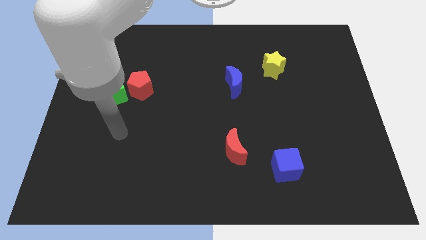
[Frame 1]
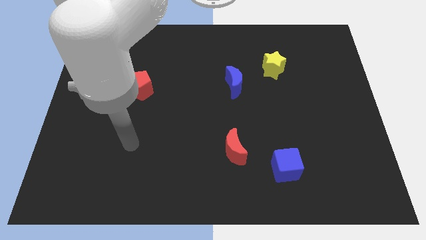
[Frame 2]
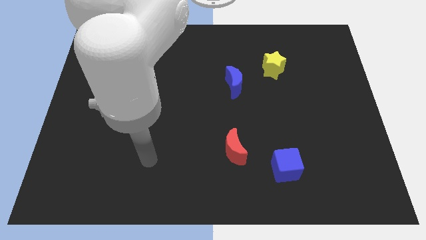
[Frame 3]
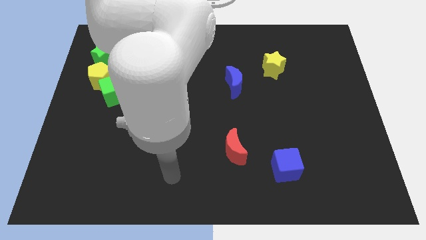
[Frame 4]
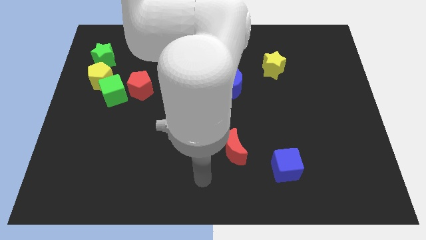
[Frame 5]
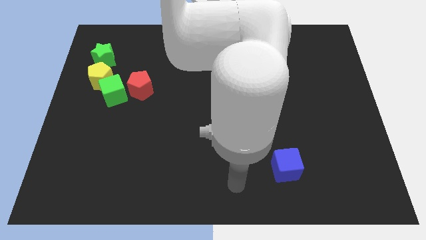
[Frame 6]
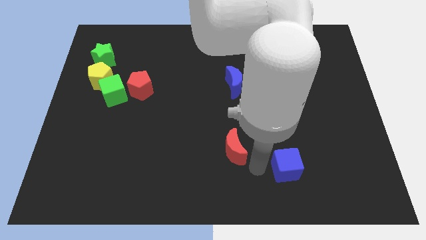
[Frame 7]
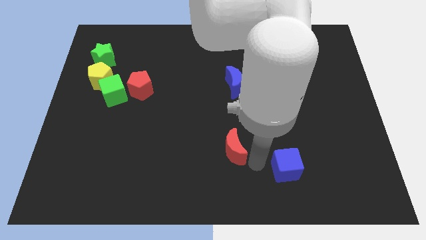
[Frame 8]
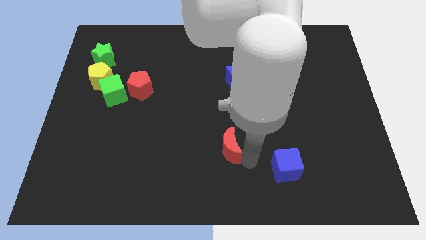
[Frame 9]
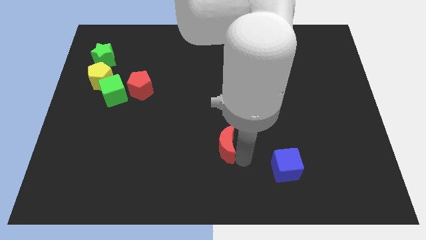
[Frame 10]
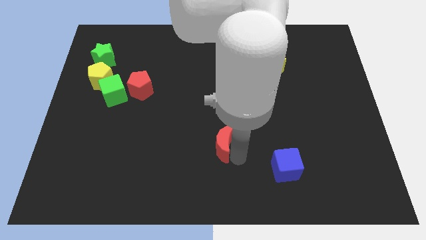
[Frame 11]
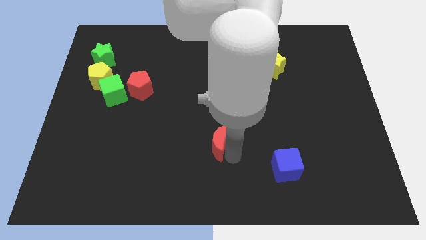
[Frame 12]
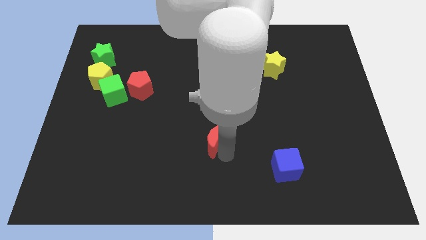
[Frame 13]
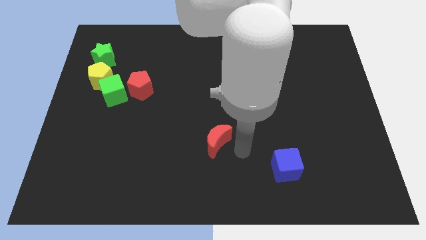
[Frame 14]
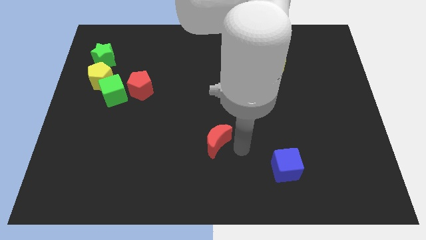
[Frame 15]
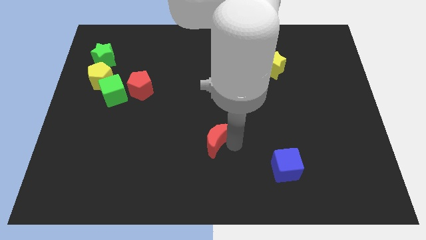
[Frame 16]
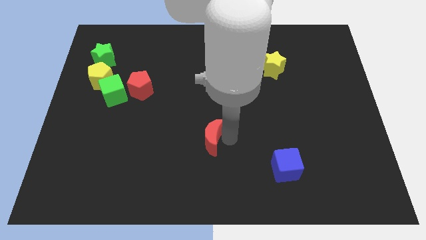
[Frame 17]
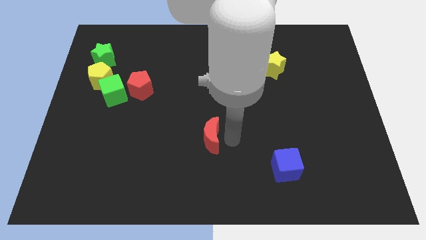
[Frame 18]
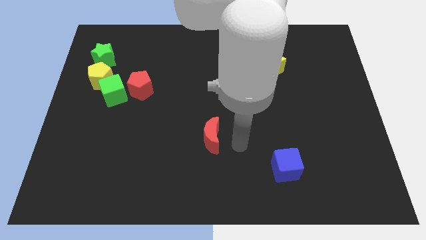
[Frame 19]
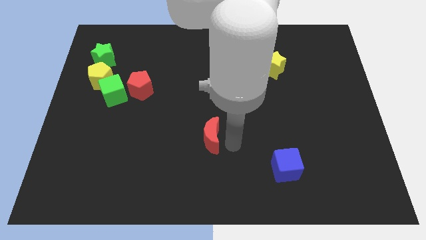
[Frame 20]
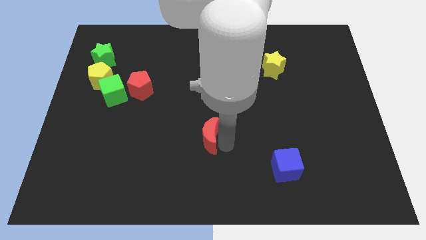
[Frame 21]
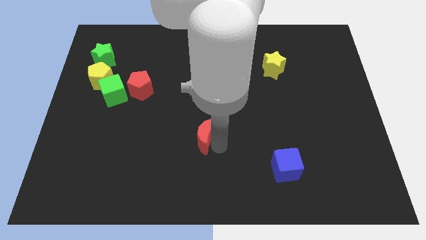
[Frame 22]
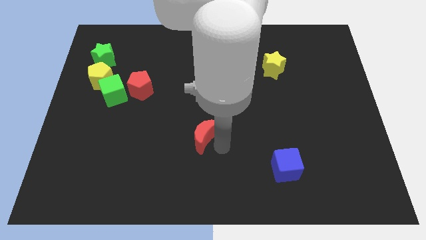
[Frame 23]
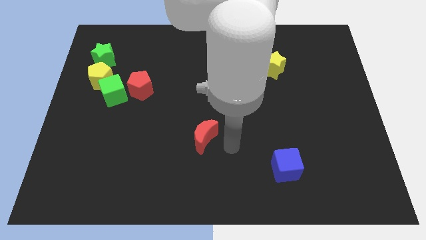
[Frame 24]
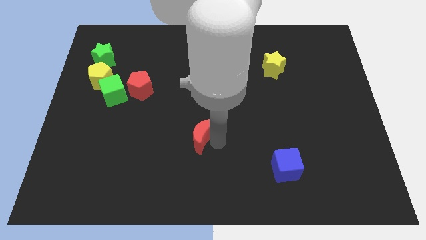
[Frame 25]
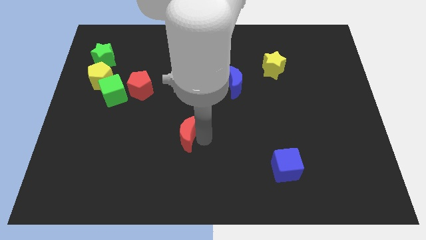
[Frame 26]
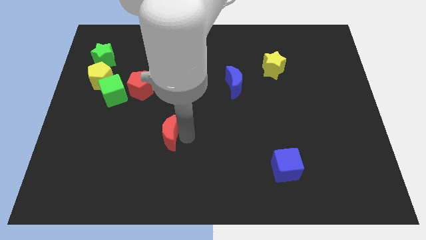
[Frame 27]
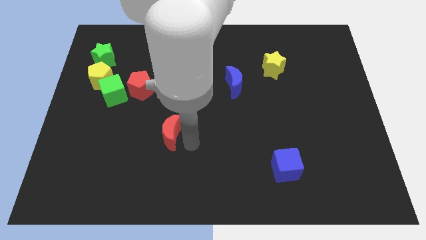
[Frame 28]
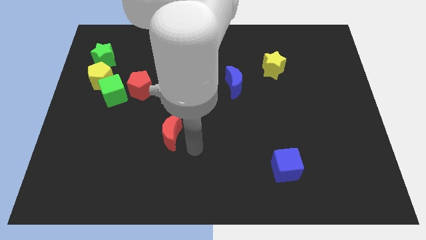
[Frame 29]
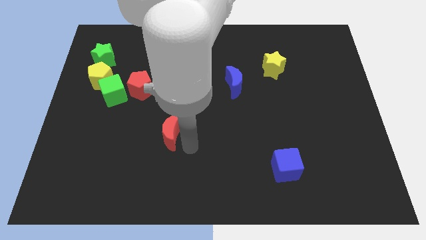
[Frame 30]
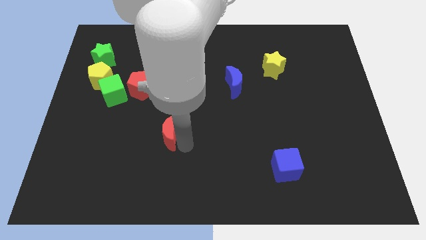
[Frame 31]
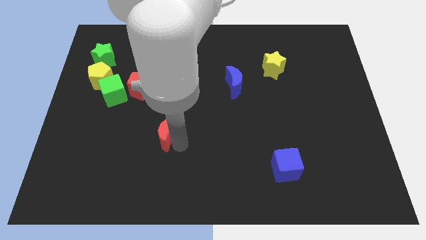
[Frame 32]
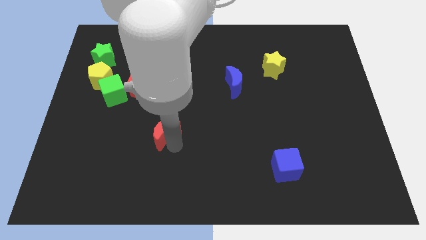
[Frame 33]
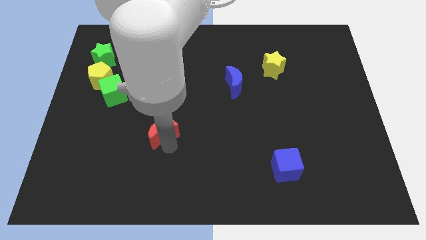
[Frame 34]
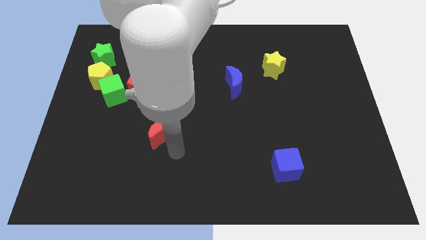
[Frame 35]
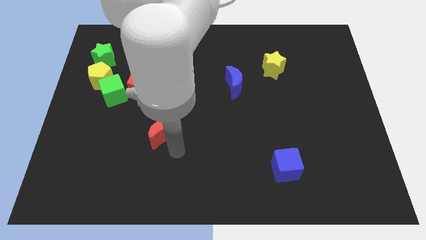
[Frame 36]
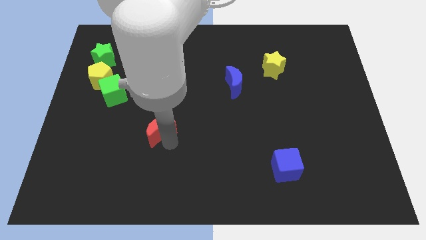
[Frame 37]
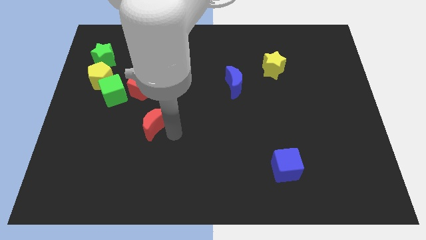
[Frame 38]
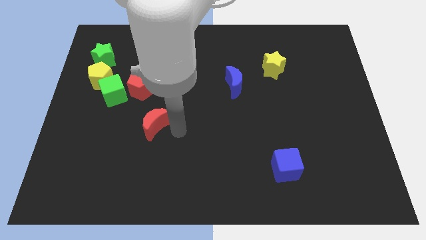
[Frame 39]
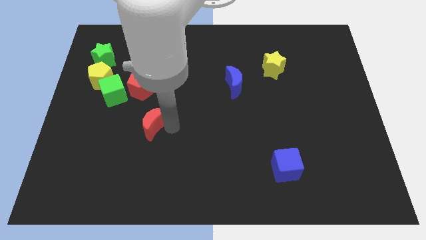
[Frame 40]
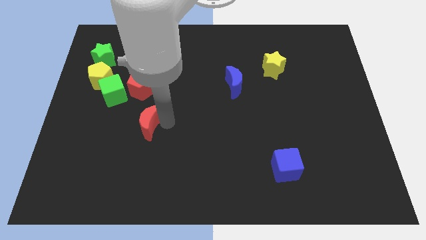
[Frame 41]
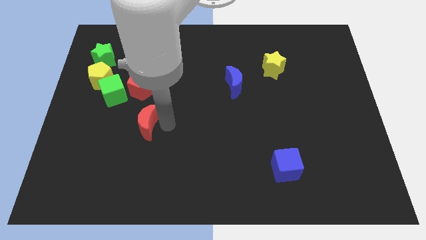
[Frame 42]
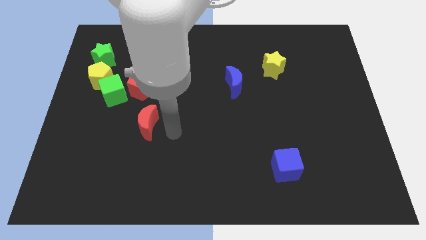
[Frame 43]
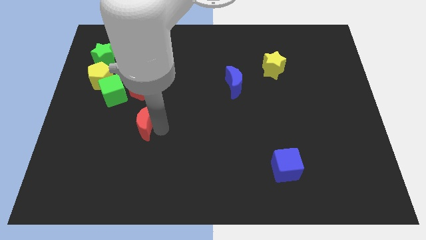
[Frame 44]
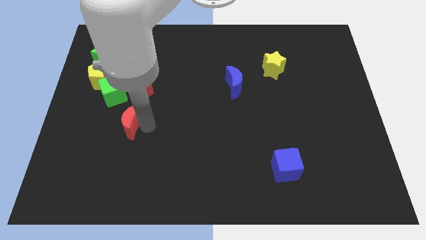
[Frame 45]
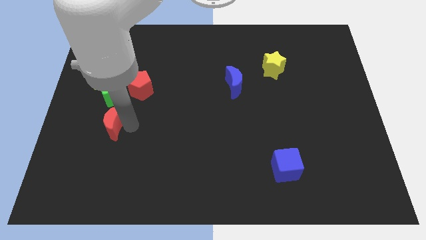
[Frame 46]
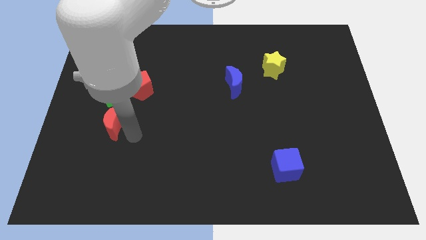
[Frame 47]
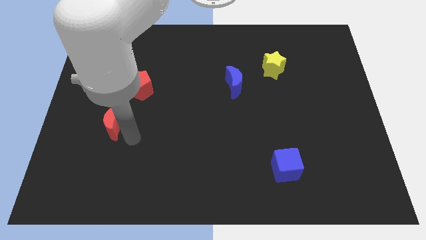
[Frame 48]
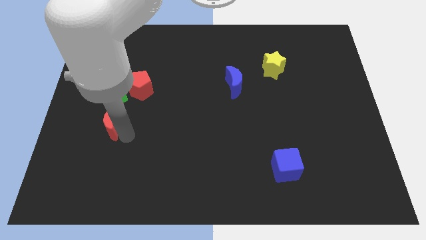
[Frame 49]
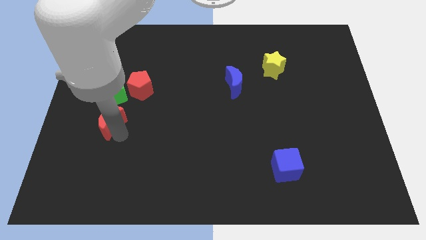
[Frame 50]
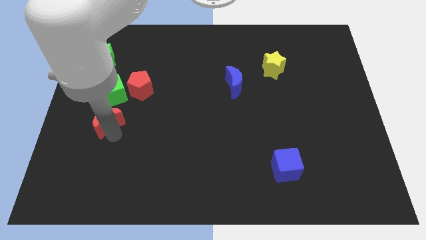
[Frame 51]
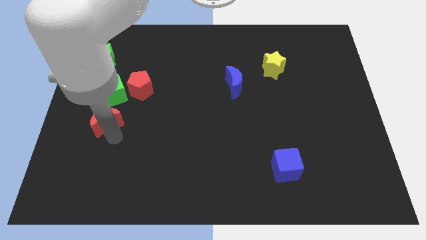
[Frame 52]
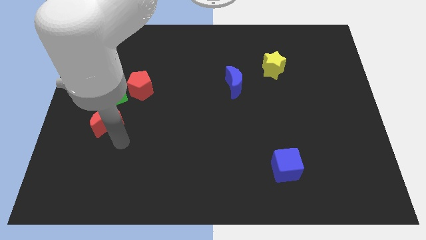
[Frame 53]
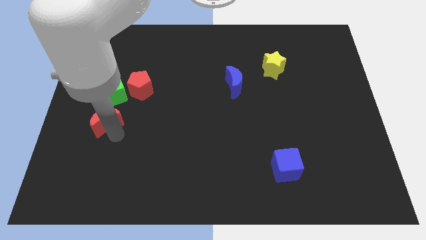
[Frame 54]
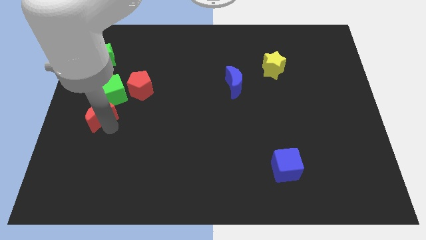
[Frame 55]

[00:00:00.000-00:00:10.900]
push the red moon to the left side of the board

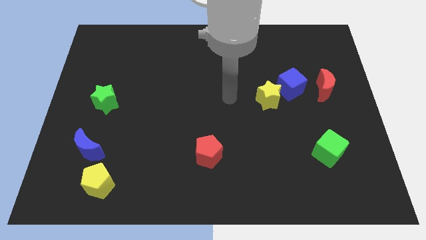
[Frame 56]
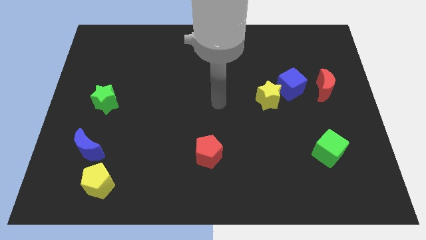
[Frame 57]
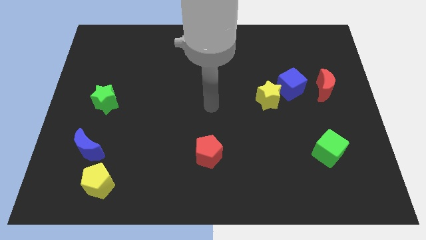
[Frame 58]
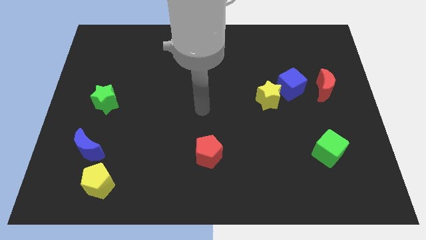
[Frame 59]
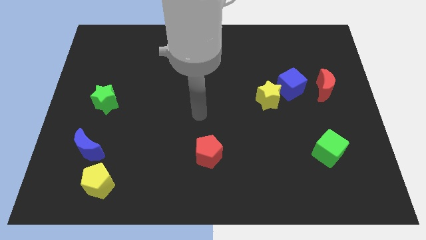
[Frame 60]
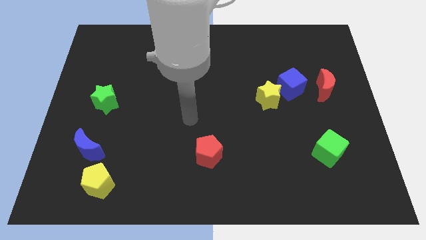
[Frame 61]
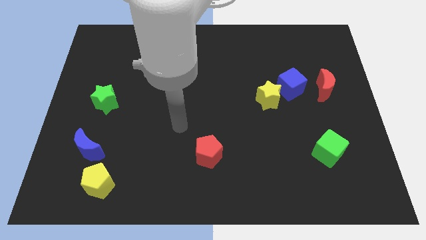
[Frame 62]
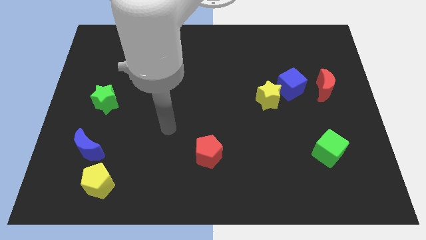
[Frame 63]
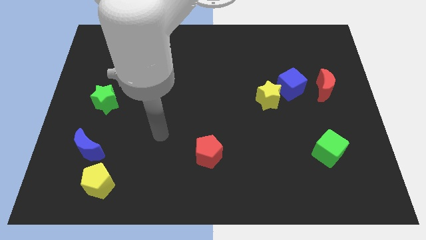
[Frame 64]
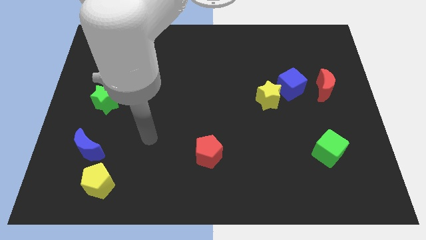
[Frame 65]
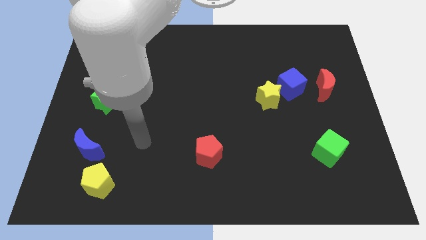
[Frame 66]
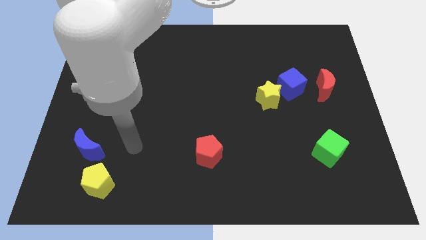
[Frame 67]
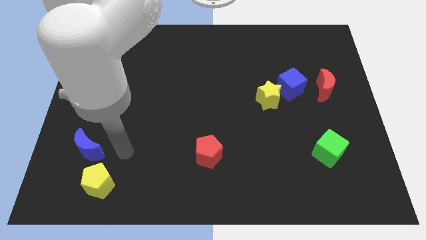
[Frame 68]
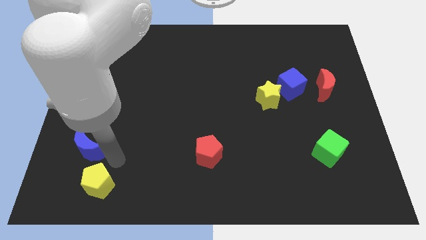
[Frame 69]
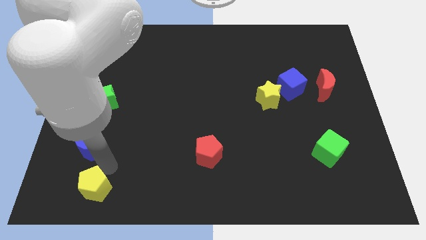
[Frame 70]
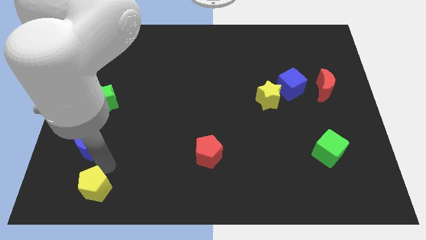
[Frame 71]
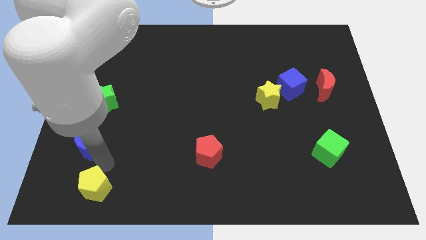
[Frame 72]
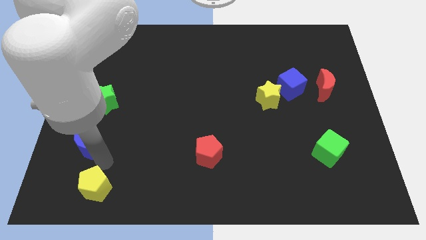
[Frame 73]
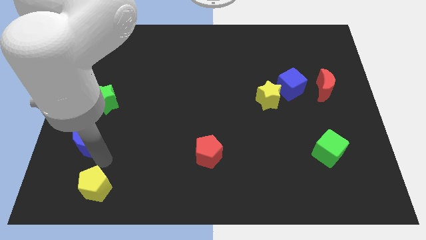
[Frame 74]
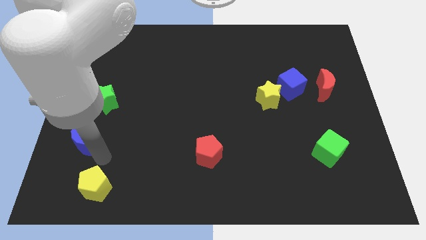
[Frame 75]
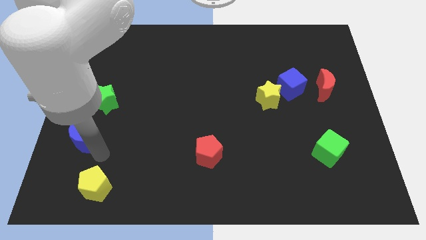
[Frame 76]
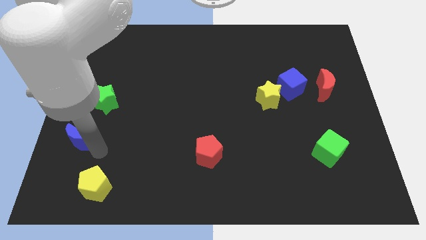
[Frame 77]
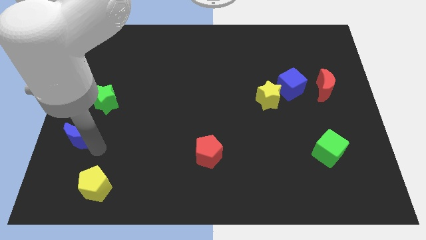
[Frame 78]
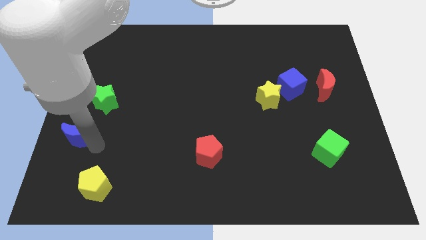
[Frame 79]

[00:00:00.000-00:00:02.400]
move the blue moon to the left side
